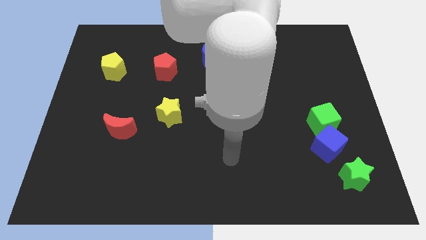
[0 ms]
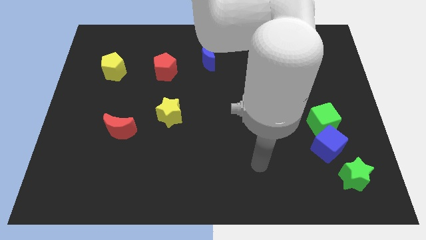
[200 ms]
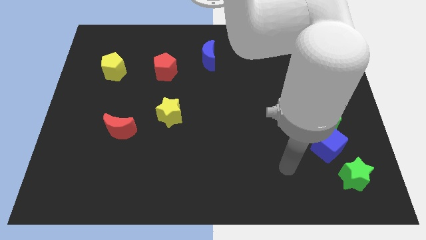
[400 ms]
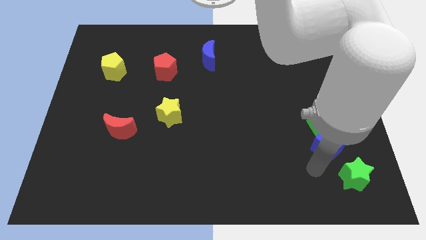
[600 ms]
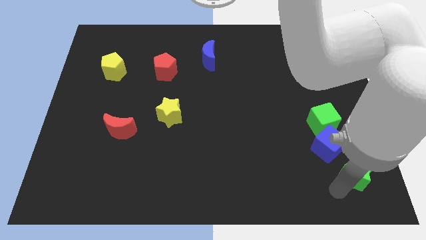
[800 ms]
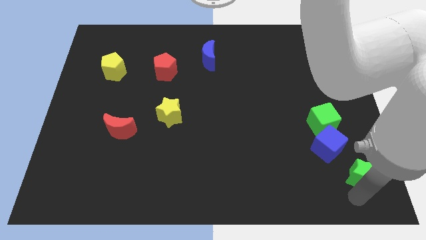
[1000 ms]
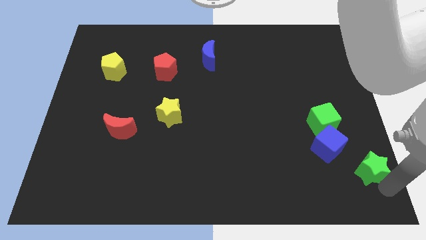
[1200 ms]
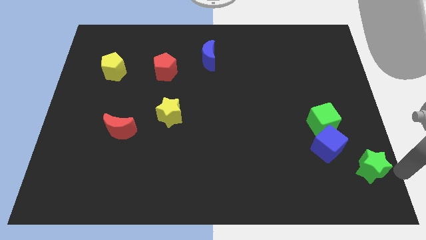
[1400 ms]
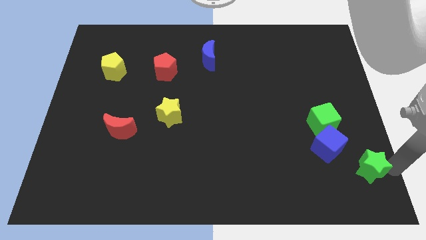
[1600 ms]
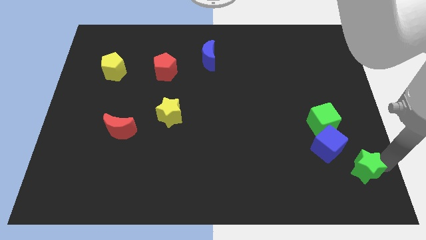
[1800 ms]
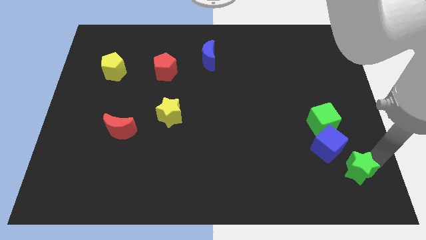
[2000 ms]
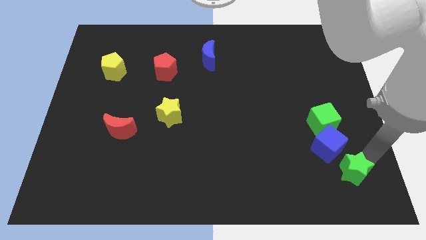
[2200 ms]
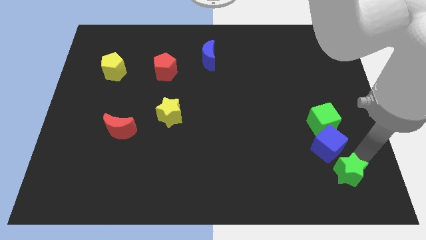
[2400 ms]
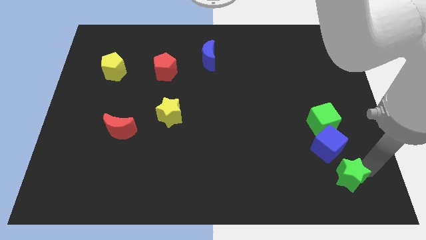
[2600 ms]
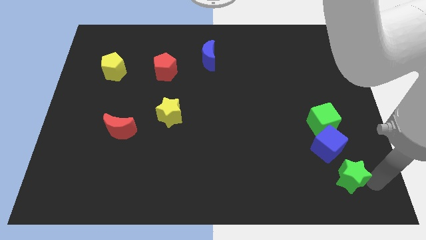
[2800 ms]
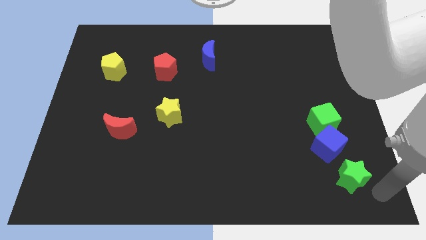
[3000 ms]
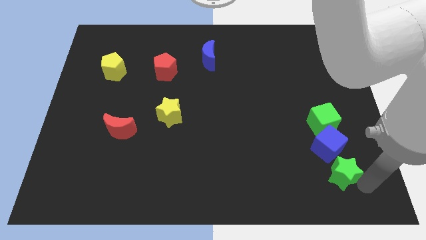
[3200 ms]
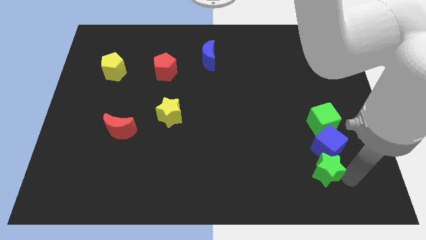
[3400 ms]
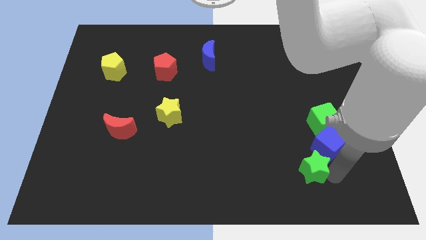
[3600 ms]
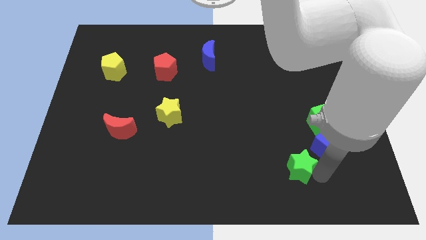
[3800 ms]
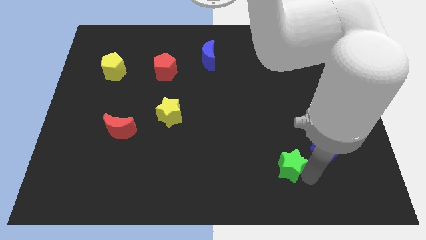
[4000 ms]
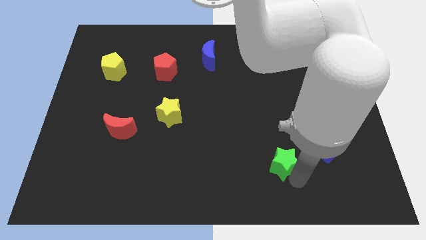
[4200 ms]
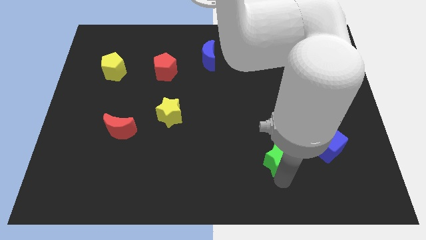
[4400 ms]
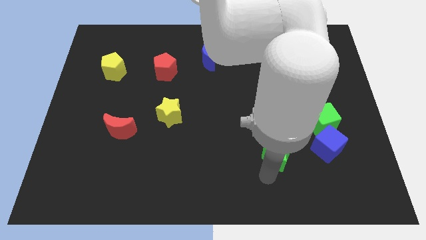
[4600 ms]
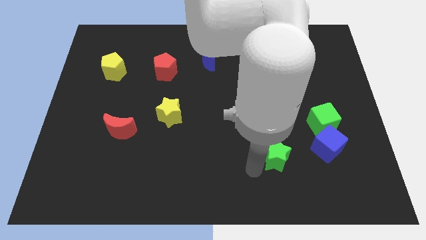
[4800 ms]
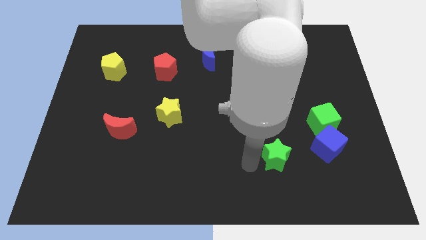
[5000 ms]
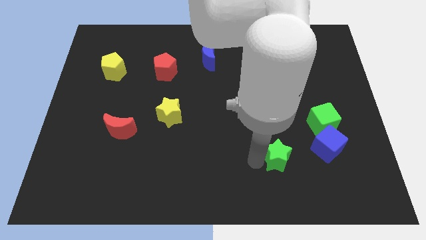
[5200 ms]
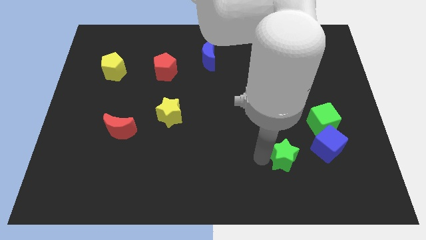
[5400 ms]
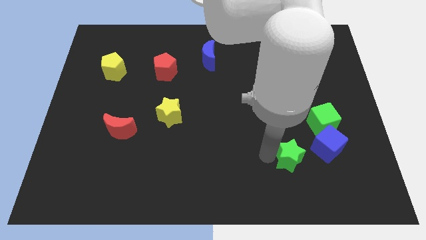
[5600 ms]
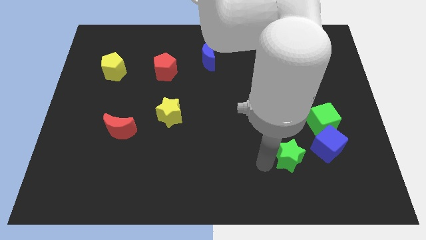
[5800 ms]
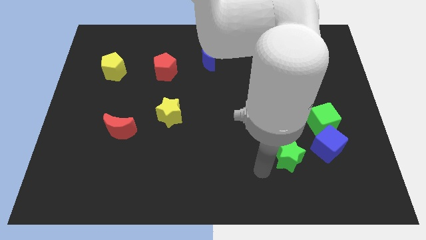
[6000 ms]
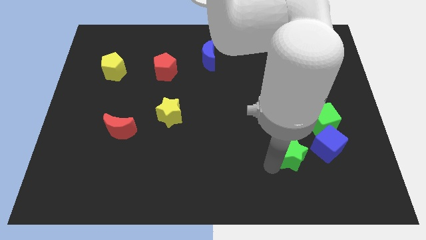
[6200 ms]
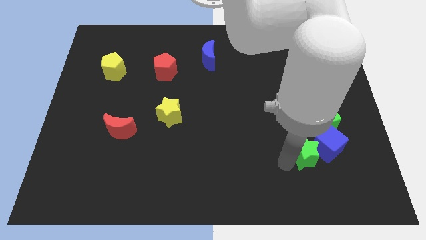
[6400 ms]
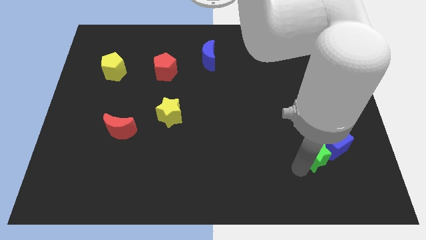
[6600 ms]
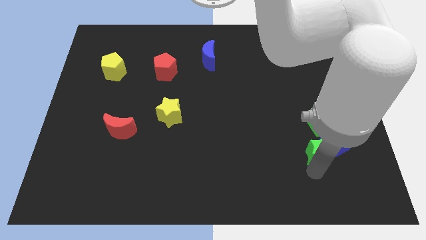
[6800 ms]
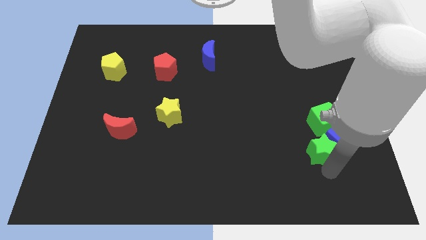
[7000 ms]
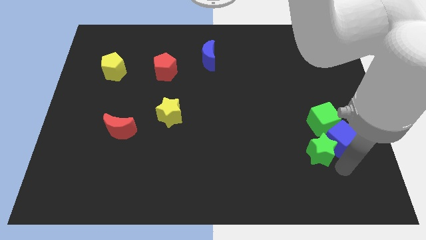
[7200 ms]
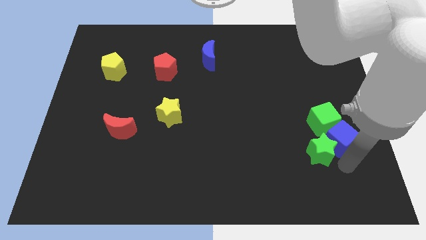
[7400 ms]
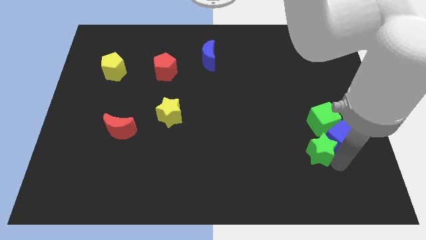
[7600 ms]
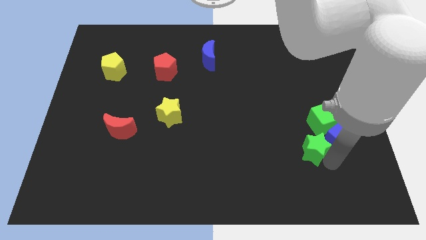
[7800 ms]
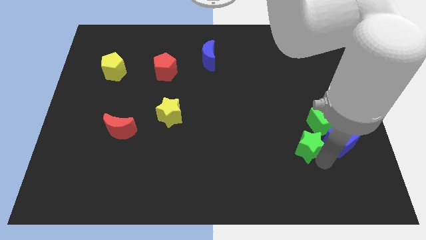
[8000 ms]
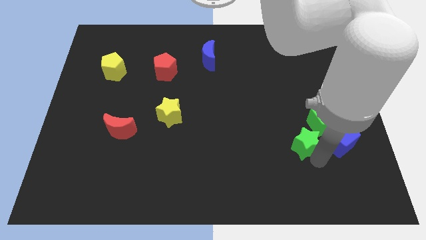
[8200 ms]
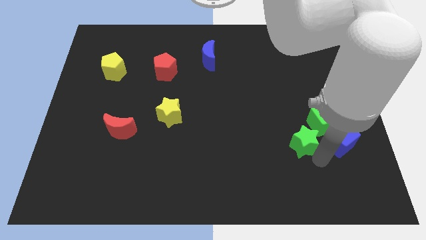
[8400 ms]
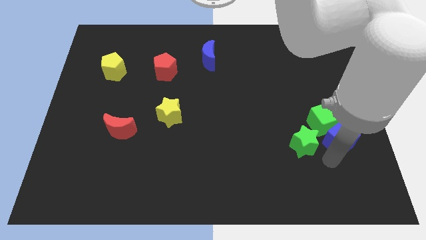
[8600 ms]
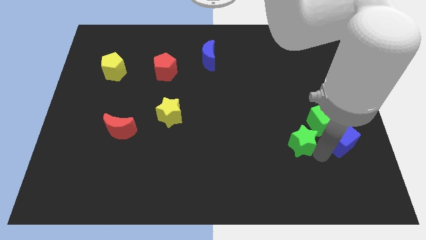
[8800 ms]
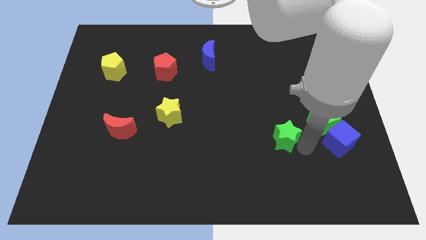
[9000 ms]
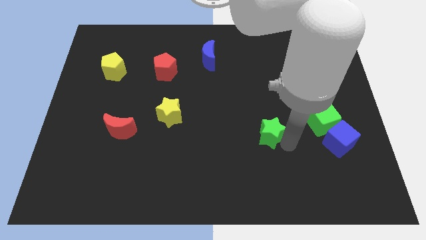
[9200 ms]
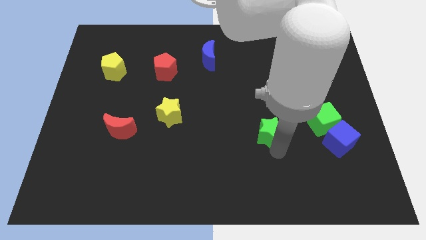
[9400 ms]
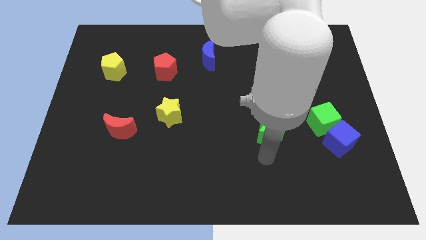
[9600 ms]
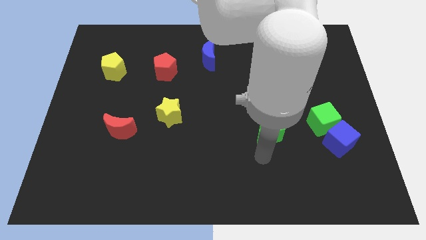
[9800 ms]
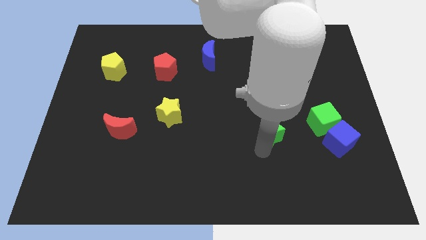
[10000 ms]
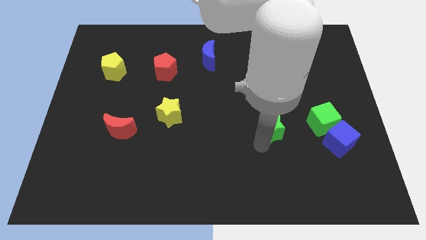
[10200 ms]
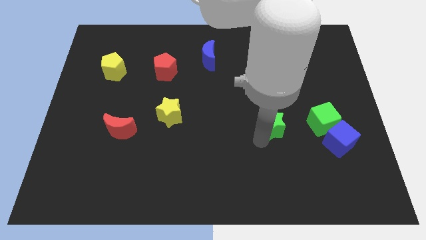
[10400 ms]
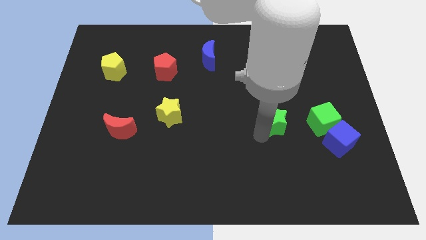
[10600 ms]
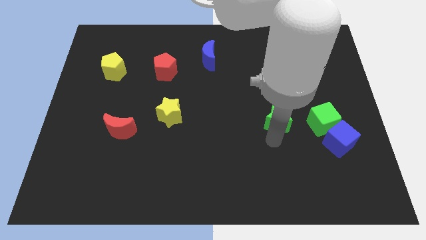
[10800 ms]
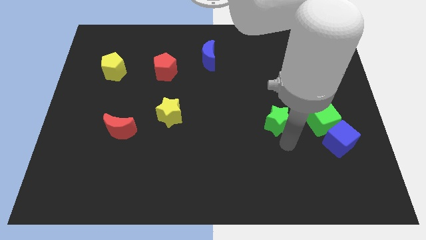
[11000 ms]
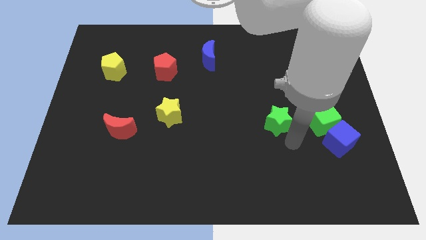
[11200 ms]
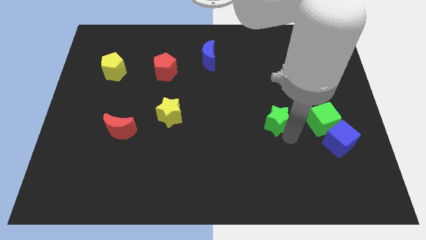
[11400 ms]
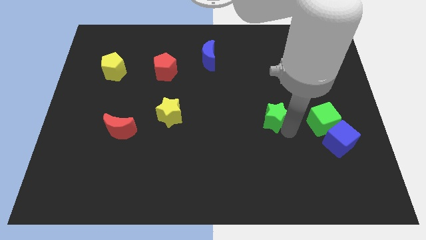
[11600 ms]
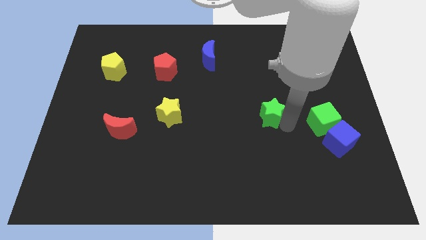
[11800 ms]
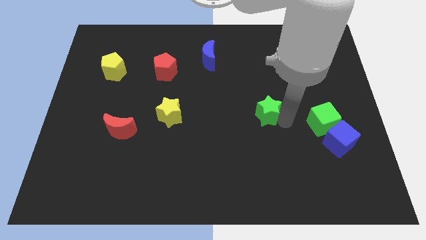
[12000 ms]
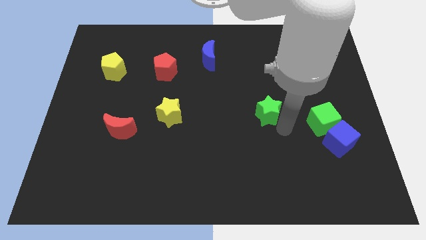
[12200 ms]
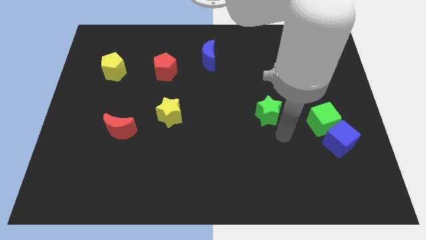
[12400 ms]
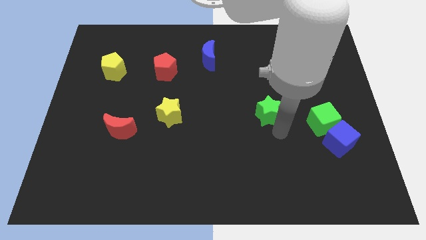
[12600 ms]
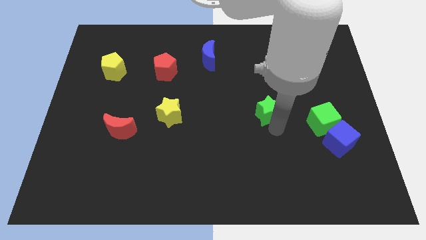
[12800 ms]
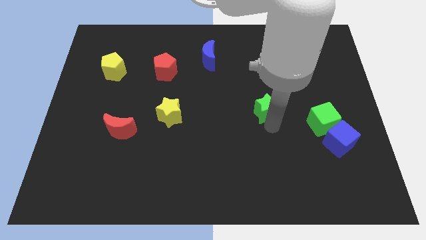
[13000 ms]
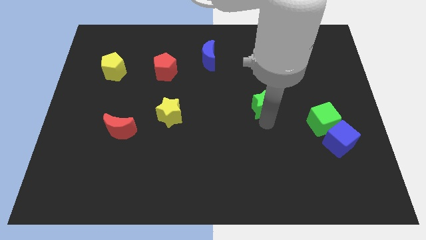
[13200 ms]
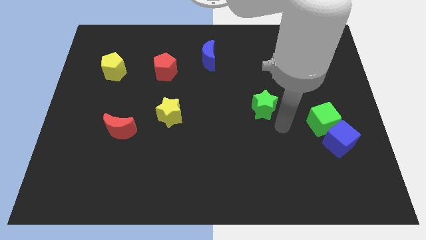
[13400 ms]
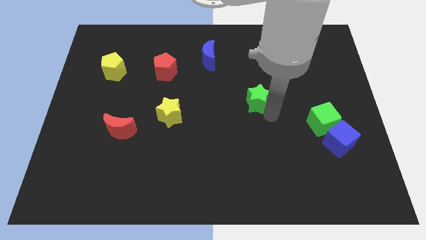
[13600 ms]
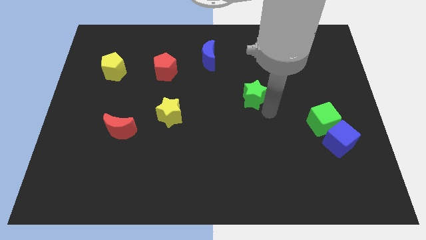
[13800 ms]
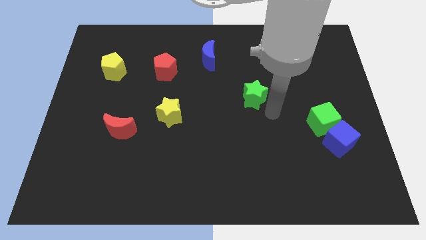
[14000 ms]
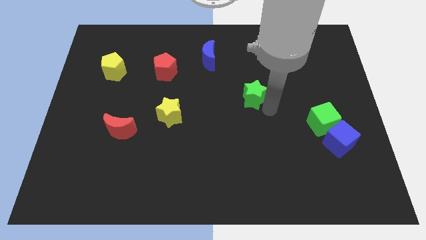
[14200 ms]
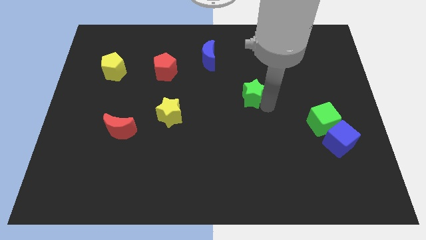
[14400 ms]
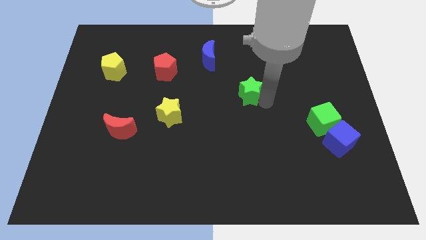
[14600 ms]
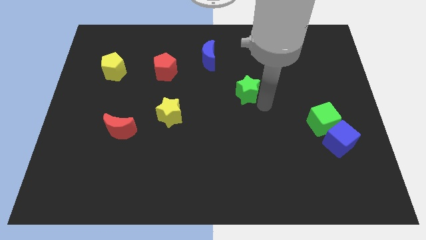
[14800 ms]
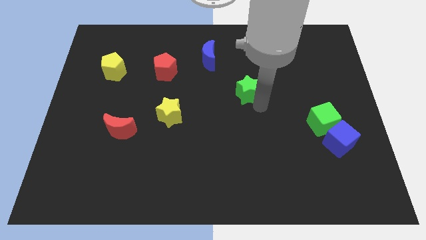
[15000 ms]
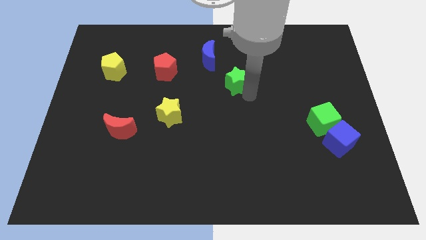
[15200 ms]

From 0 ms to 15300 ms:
push the green star to the bottom right of the blue moon
